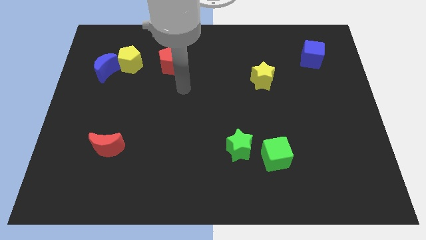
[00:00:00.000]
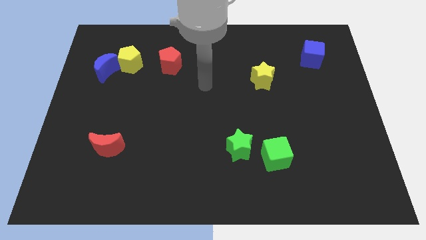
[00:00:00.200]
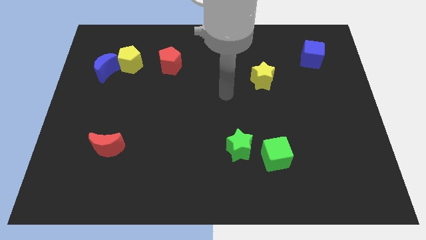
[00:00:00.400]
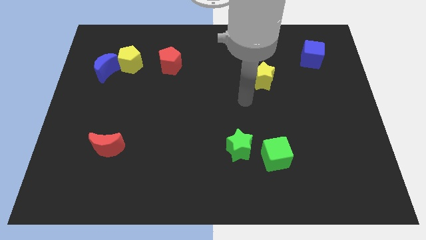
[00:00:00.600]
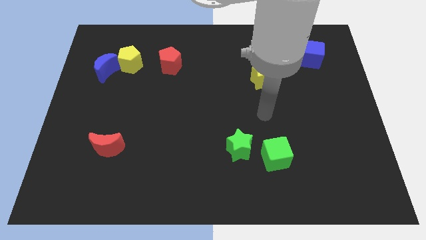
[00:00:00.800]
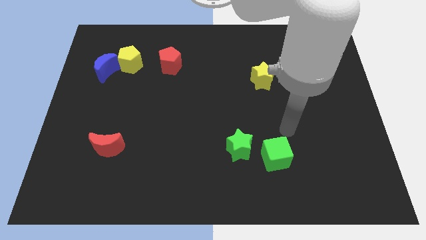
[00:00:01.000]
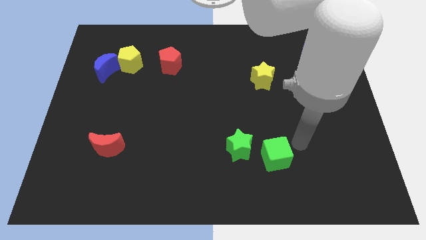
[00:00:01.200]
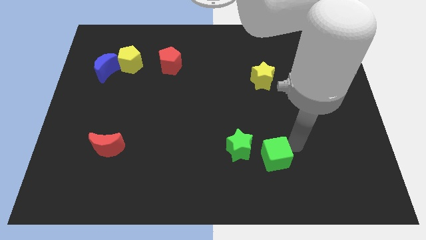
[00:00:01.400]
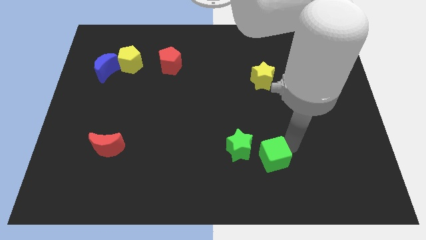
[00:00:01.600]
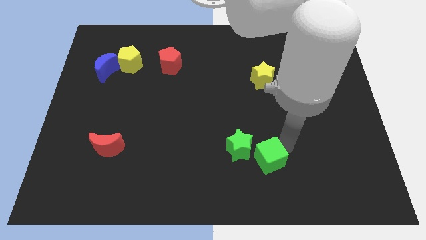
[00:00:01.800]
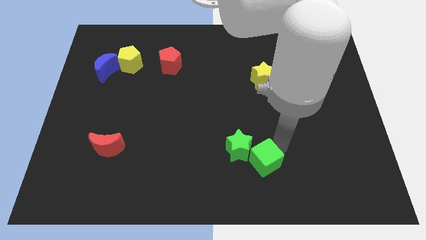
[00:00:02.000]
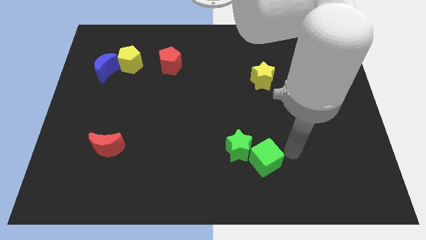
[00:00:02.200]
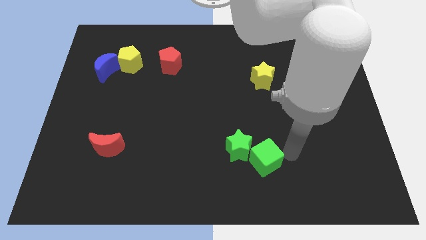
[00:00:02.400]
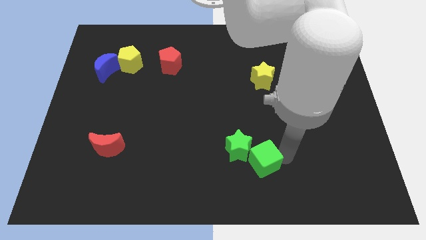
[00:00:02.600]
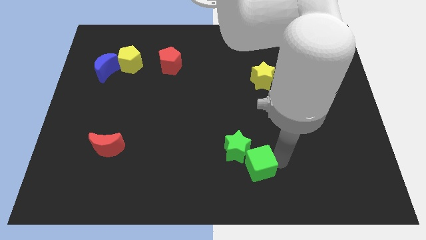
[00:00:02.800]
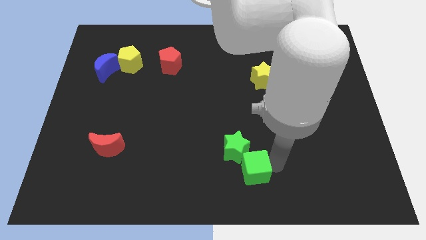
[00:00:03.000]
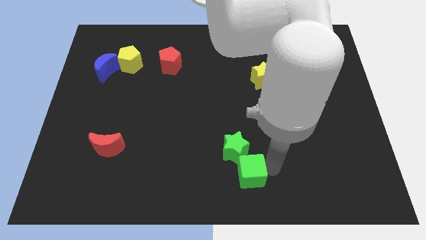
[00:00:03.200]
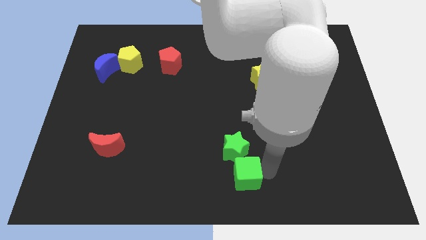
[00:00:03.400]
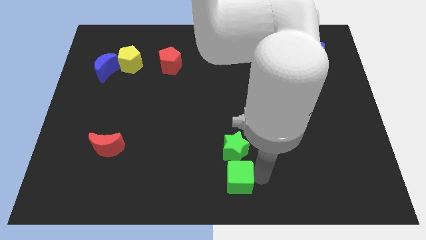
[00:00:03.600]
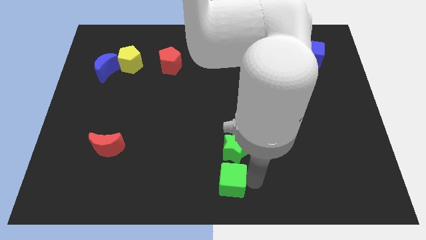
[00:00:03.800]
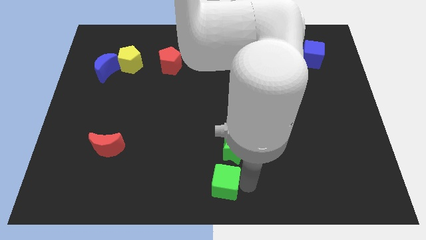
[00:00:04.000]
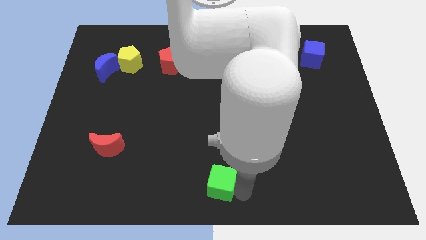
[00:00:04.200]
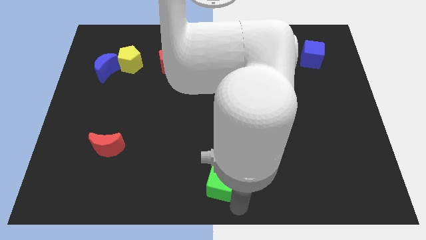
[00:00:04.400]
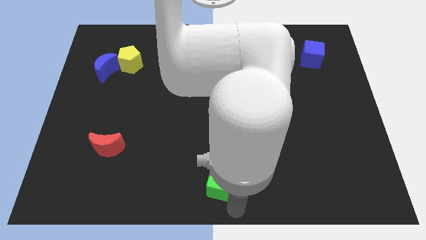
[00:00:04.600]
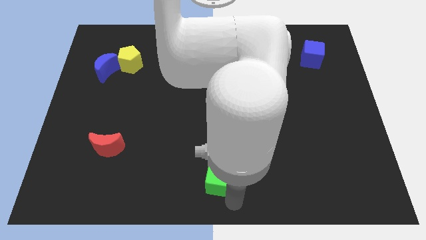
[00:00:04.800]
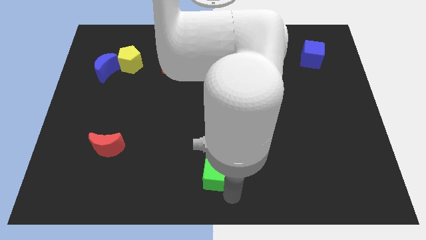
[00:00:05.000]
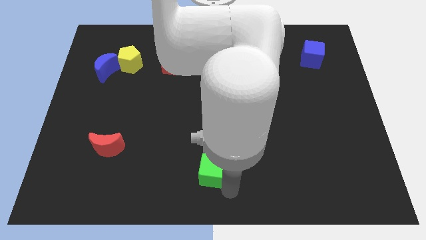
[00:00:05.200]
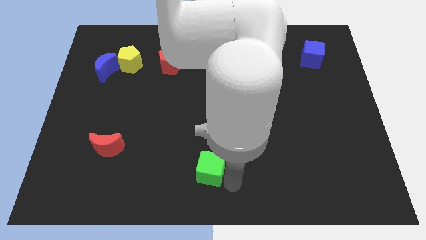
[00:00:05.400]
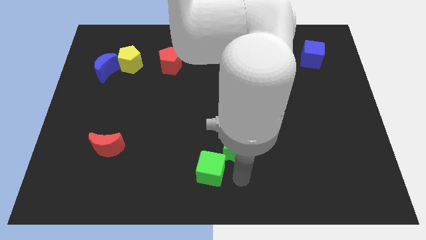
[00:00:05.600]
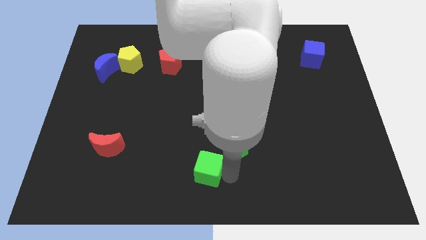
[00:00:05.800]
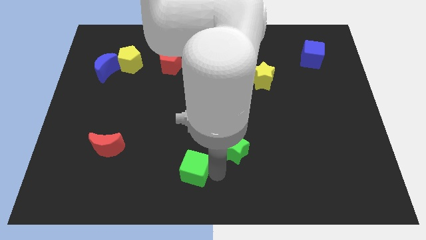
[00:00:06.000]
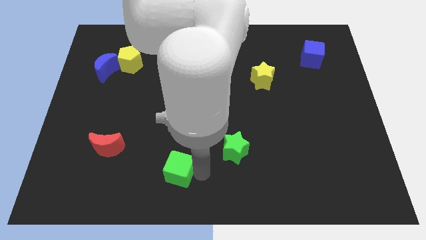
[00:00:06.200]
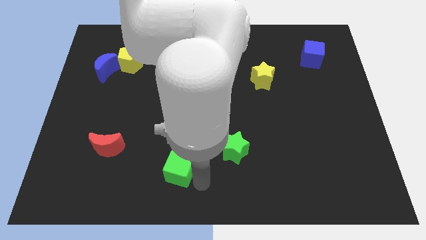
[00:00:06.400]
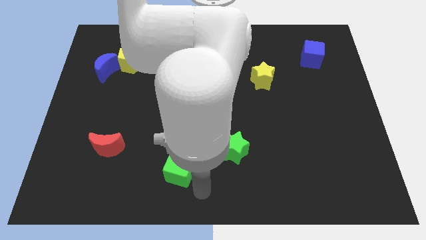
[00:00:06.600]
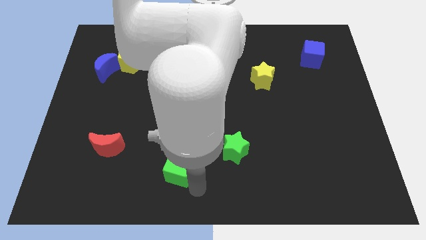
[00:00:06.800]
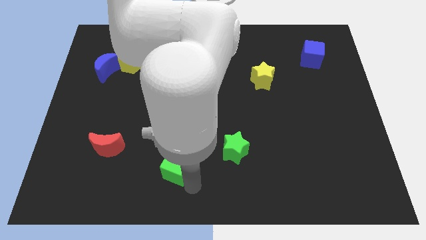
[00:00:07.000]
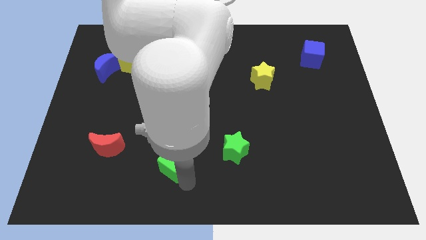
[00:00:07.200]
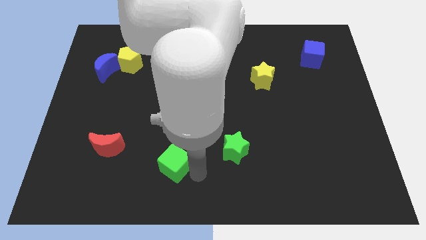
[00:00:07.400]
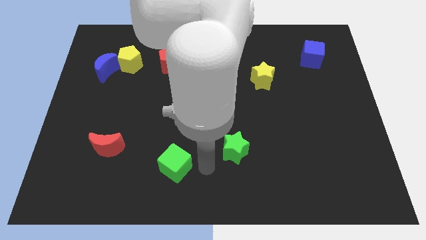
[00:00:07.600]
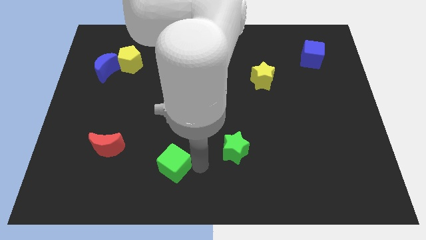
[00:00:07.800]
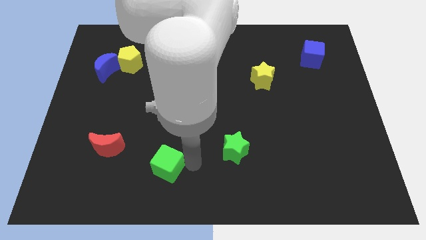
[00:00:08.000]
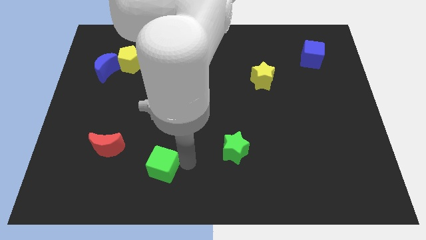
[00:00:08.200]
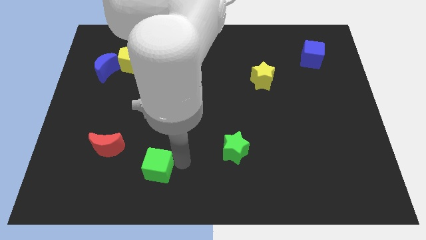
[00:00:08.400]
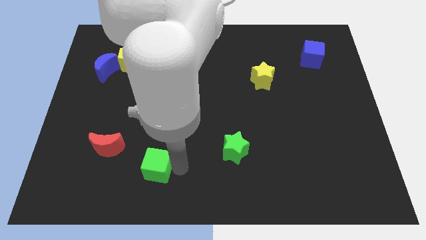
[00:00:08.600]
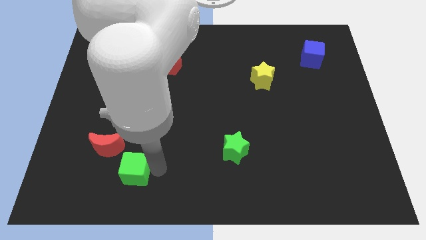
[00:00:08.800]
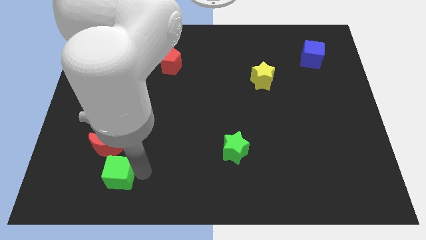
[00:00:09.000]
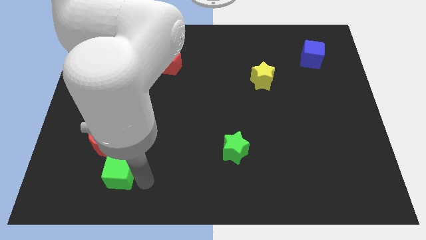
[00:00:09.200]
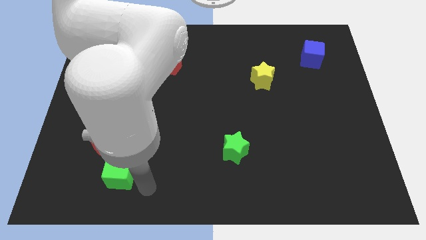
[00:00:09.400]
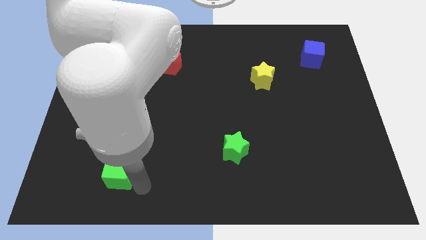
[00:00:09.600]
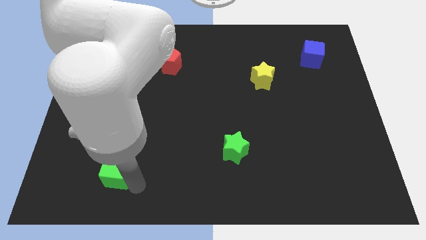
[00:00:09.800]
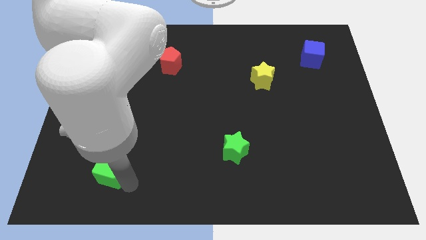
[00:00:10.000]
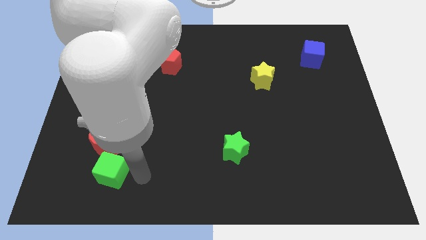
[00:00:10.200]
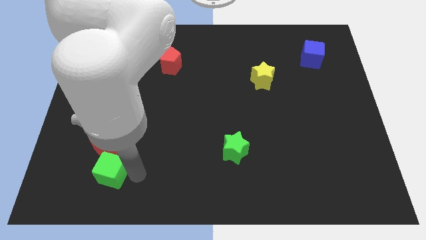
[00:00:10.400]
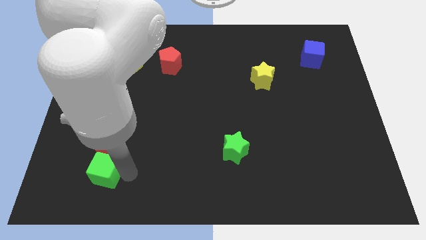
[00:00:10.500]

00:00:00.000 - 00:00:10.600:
push the green cube to the bottom left of the red moon

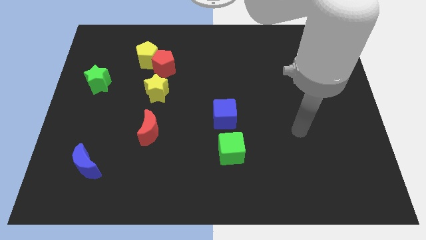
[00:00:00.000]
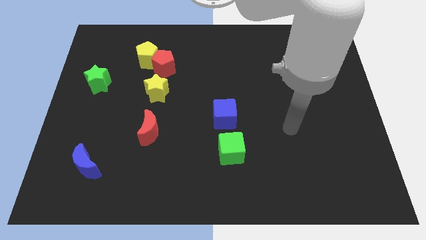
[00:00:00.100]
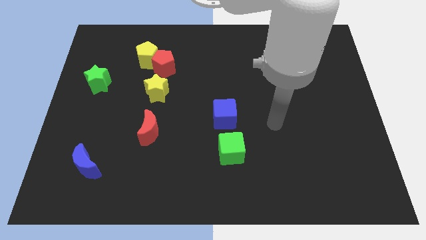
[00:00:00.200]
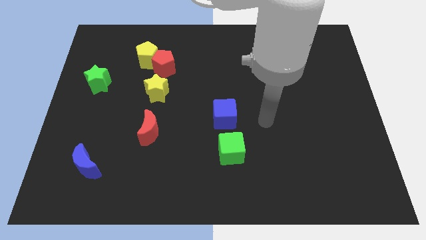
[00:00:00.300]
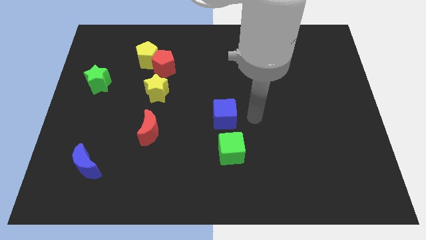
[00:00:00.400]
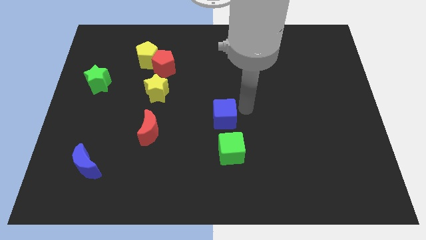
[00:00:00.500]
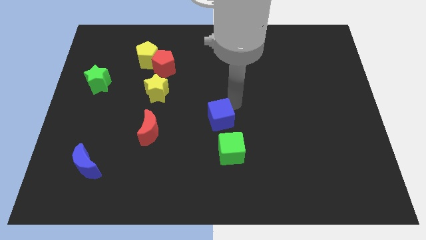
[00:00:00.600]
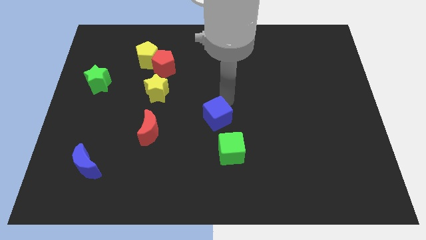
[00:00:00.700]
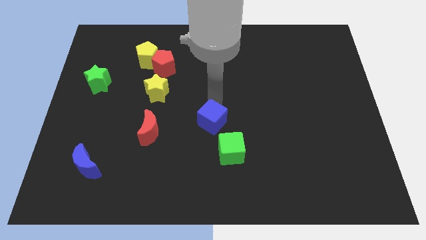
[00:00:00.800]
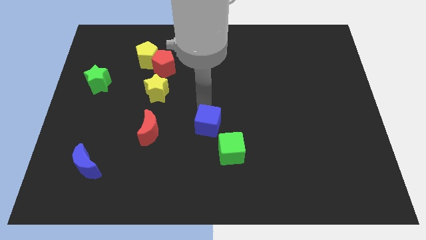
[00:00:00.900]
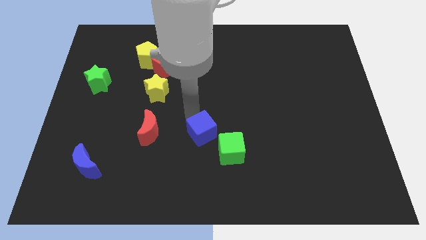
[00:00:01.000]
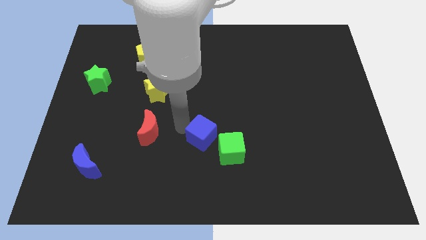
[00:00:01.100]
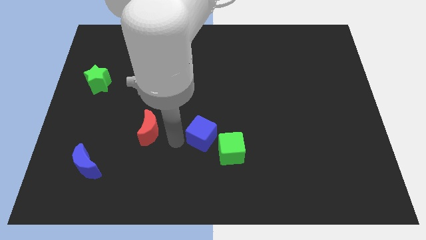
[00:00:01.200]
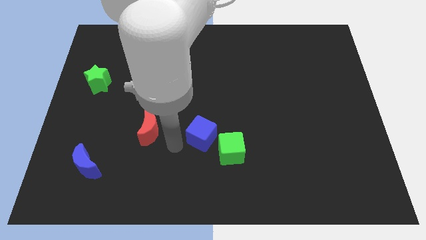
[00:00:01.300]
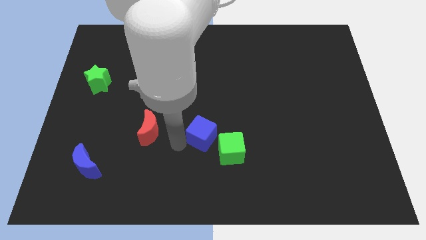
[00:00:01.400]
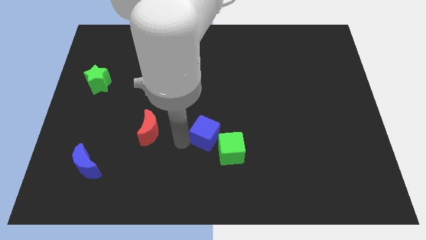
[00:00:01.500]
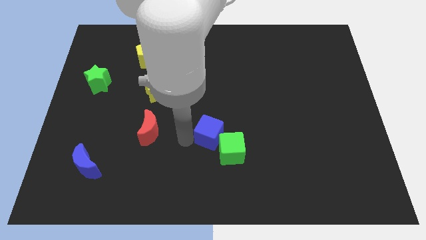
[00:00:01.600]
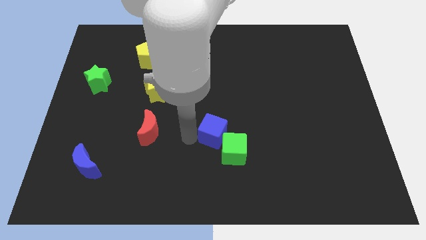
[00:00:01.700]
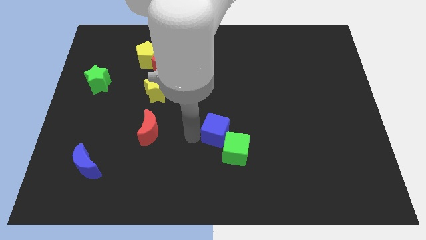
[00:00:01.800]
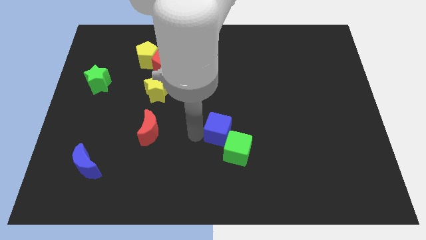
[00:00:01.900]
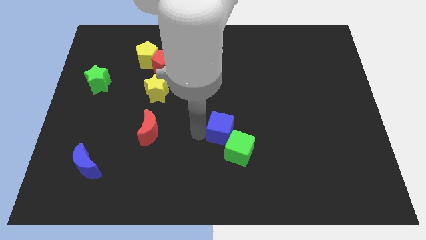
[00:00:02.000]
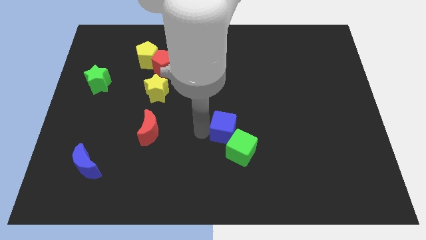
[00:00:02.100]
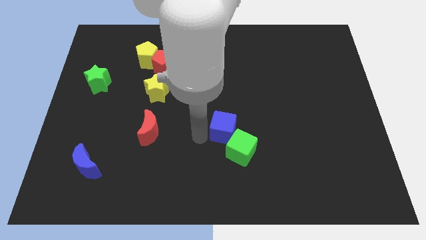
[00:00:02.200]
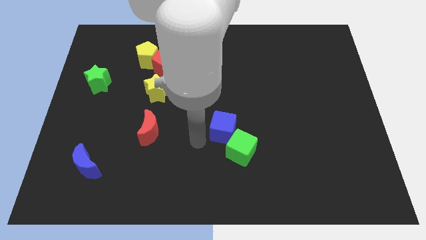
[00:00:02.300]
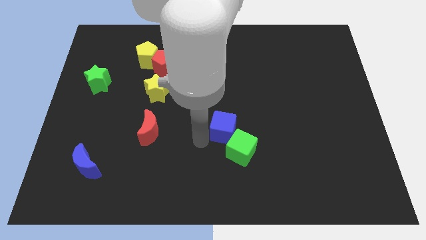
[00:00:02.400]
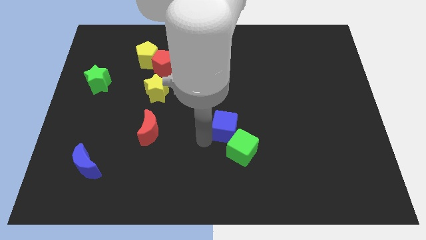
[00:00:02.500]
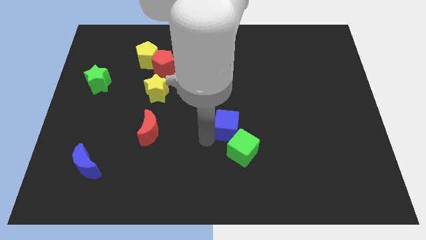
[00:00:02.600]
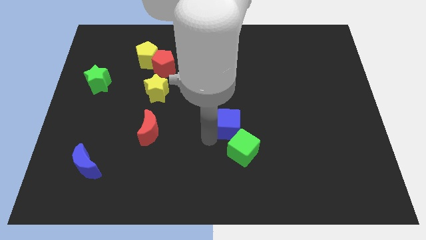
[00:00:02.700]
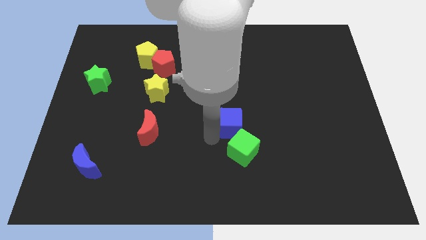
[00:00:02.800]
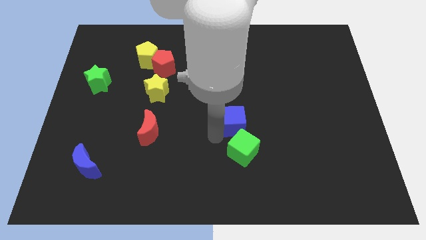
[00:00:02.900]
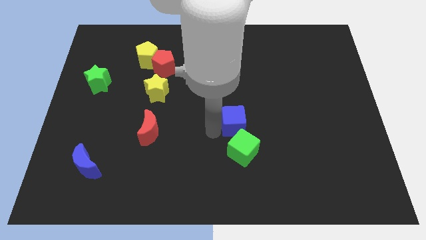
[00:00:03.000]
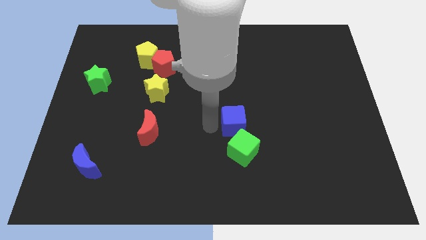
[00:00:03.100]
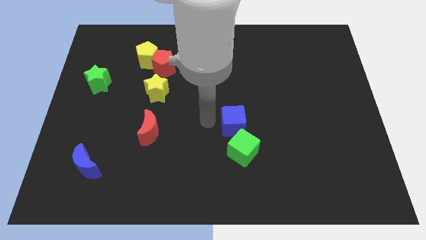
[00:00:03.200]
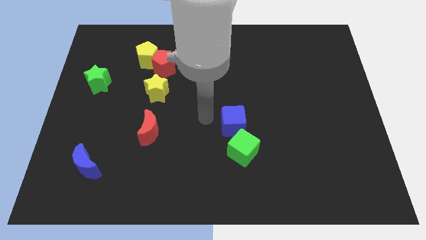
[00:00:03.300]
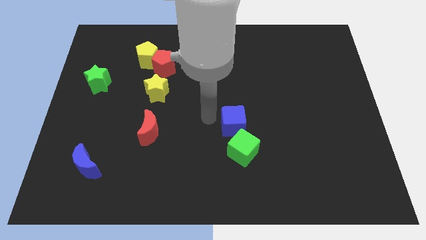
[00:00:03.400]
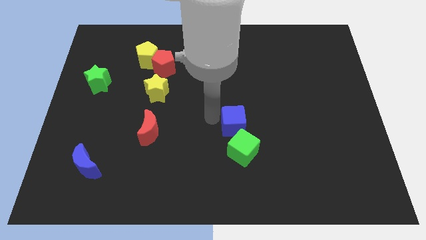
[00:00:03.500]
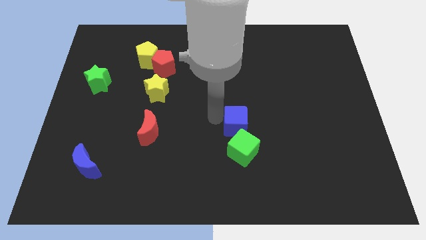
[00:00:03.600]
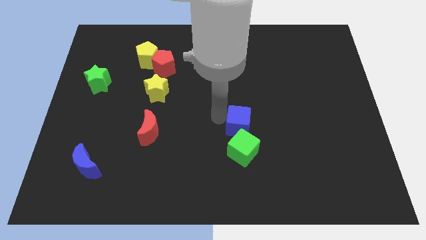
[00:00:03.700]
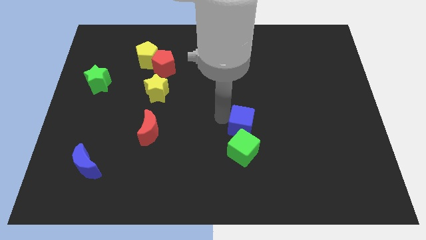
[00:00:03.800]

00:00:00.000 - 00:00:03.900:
move the blue cube diagonally up and to the right of the green cube
